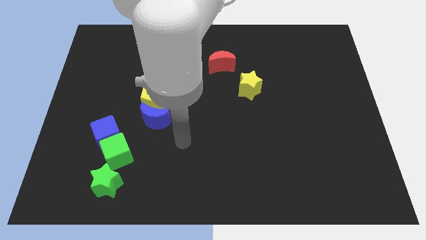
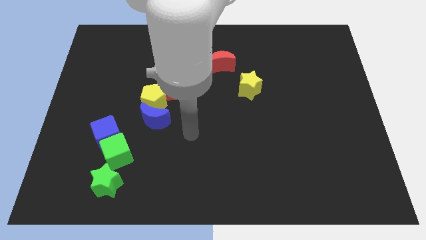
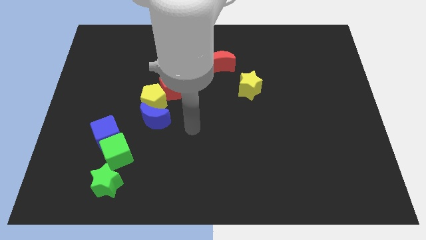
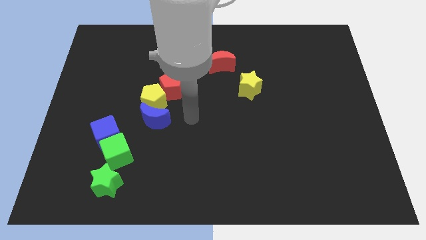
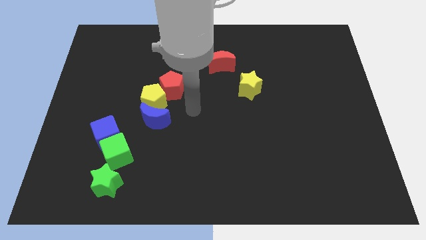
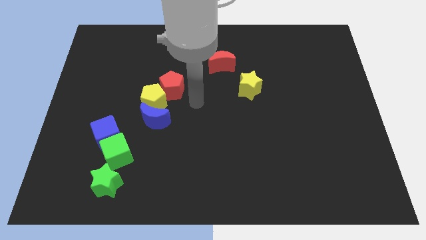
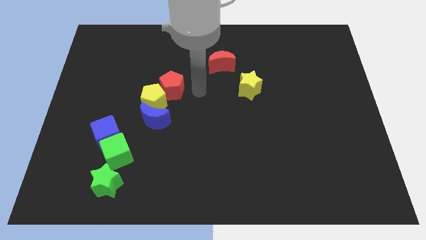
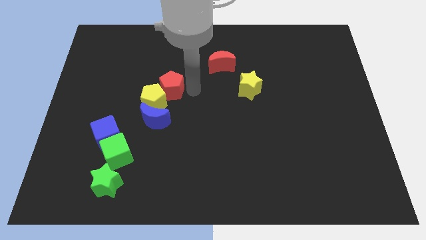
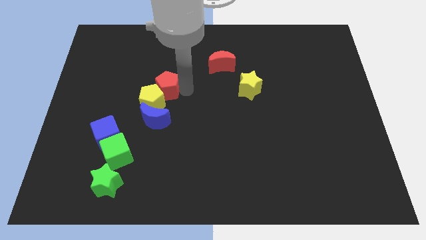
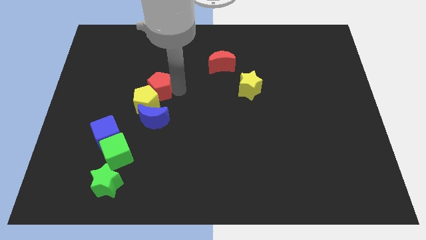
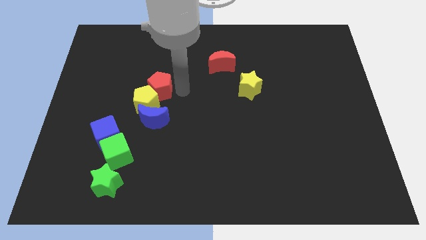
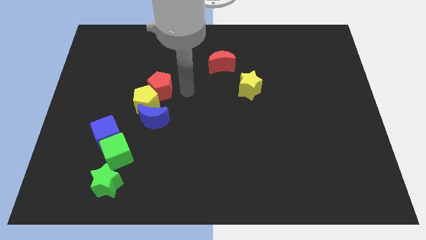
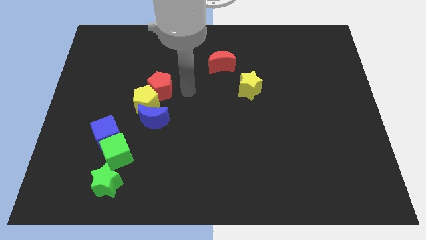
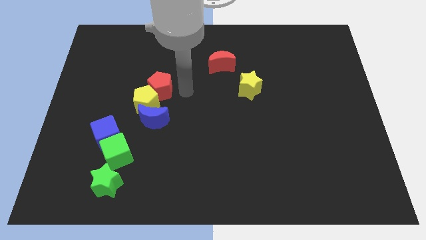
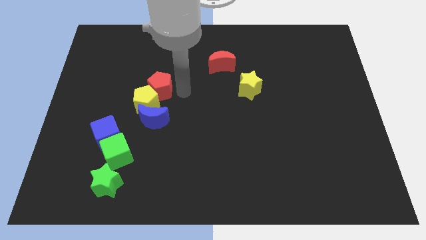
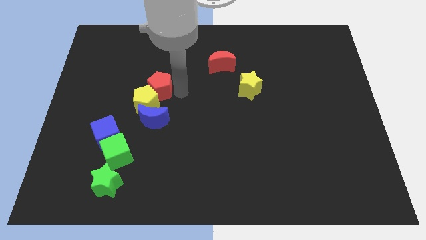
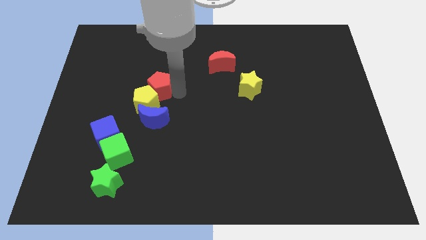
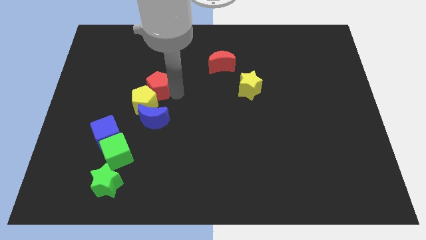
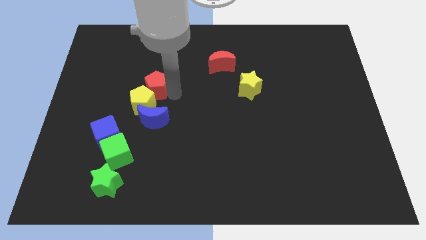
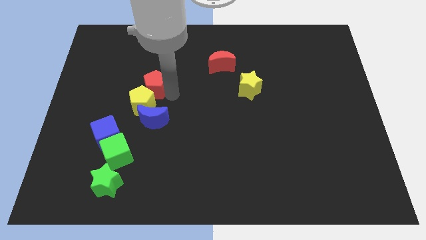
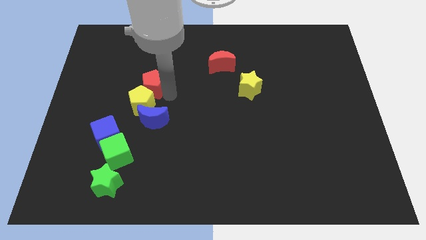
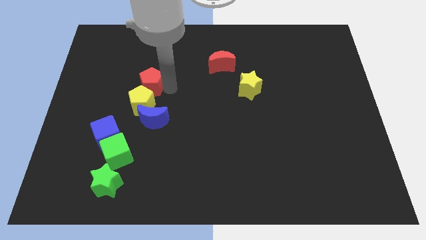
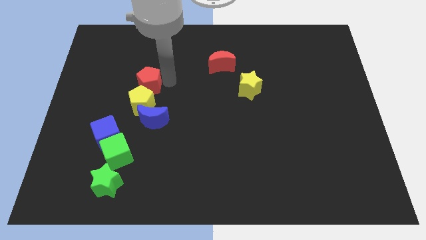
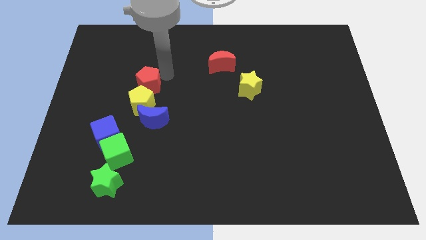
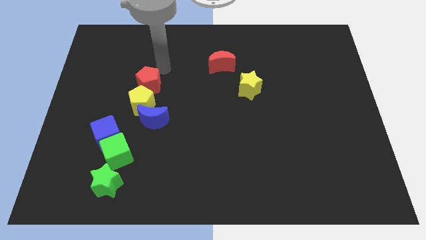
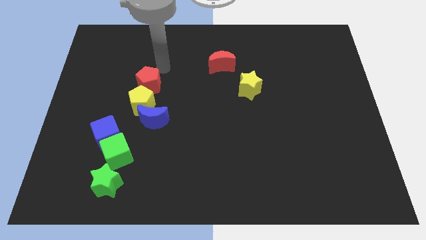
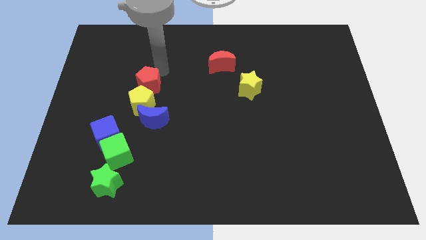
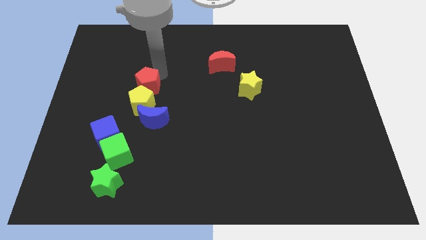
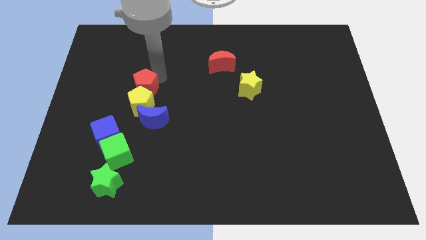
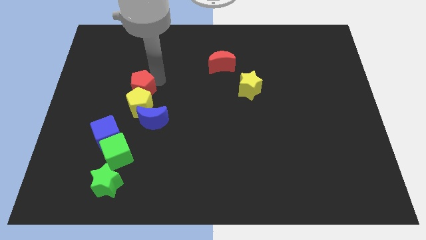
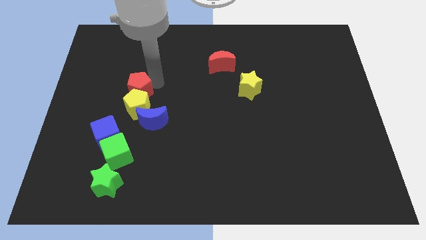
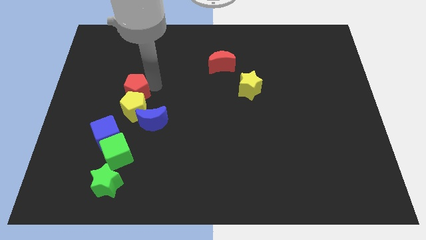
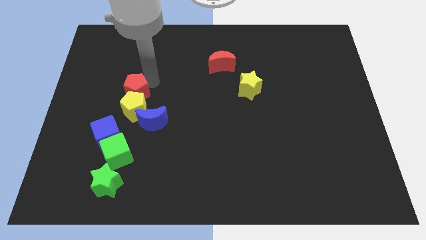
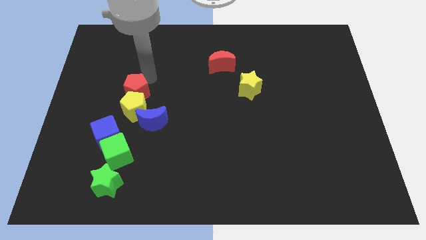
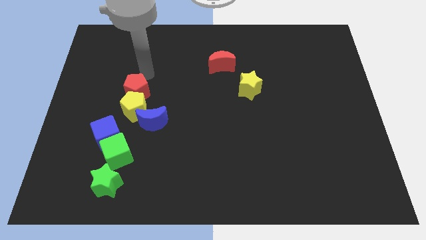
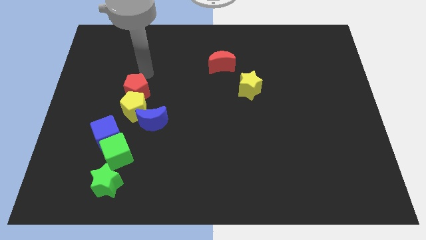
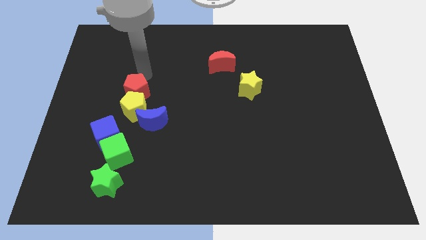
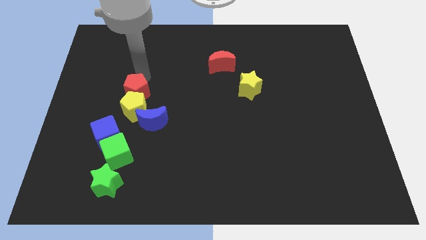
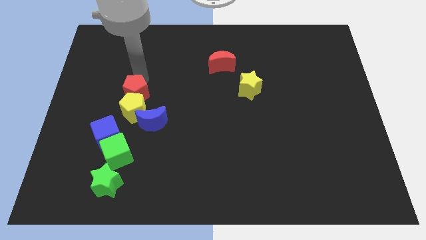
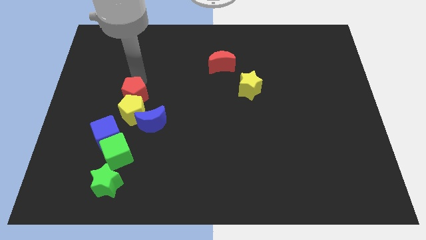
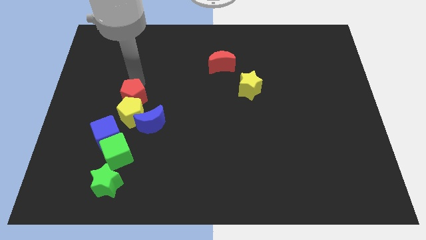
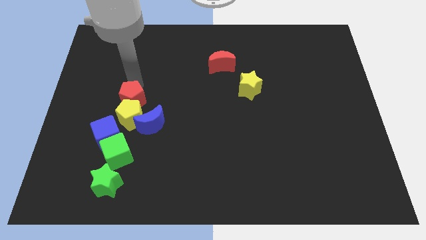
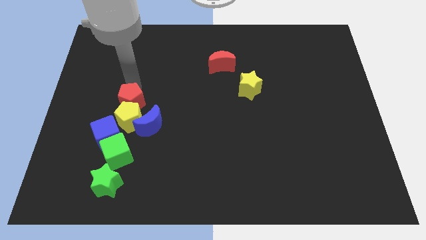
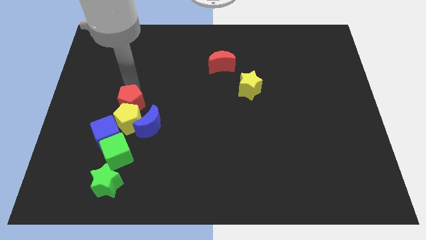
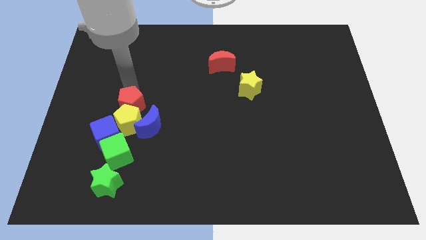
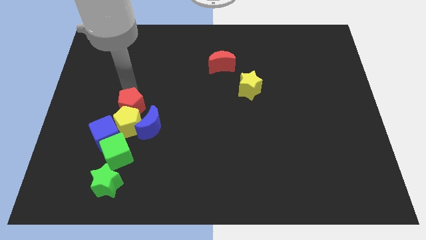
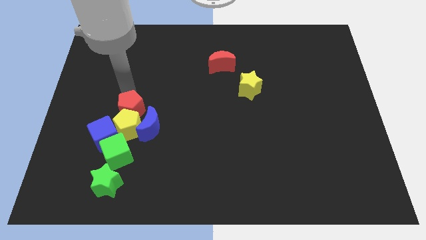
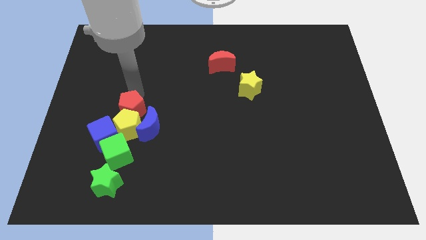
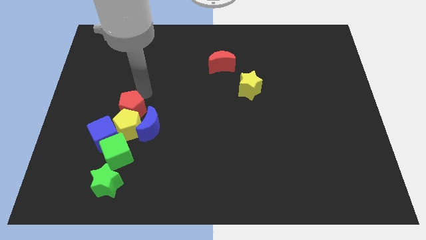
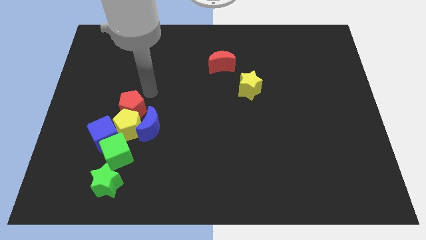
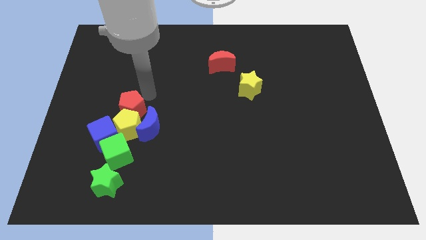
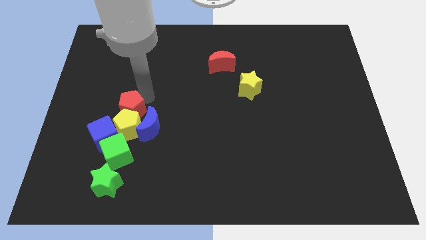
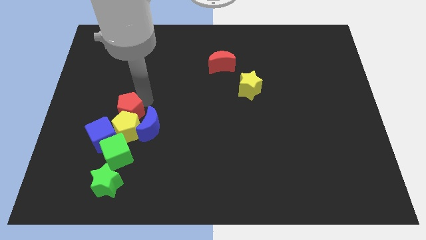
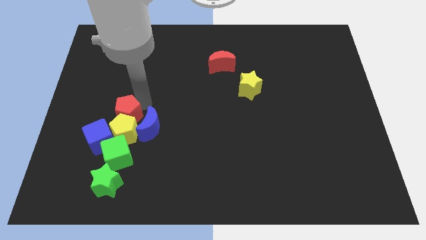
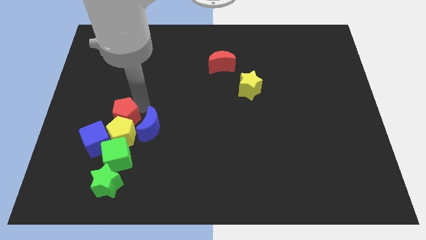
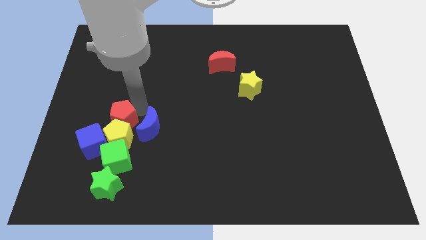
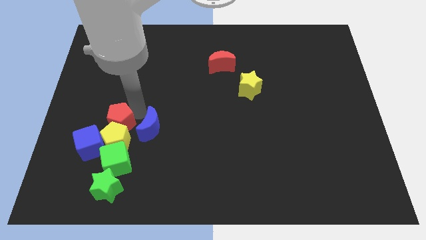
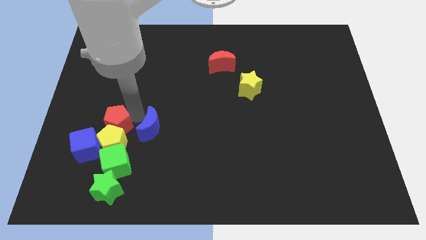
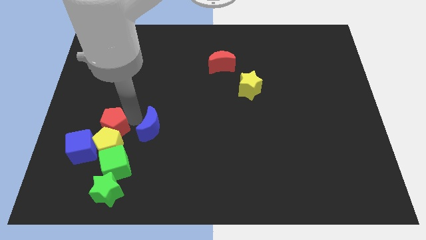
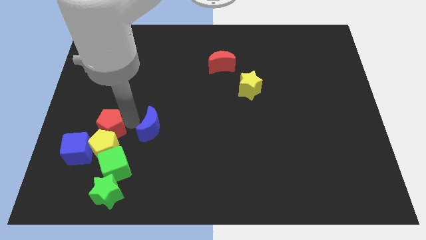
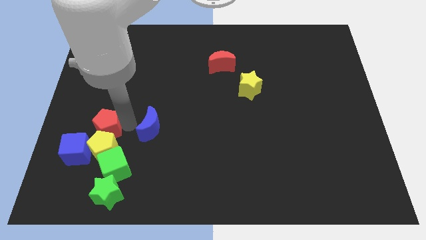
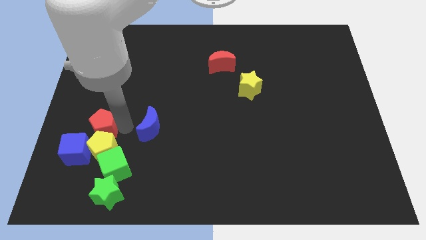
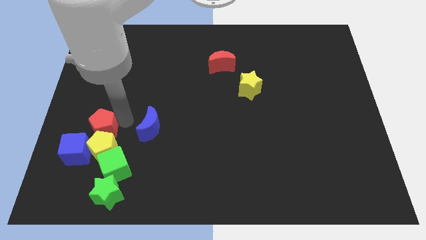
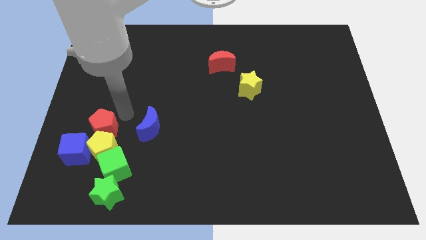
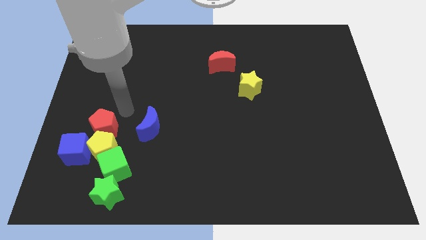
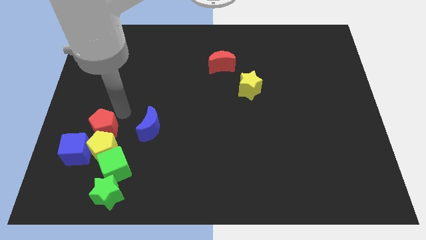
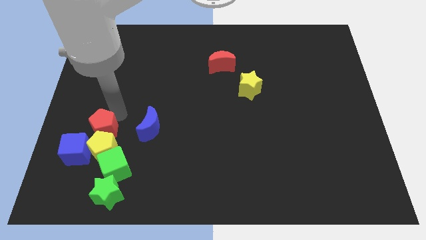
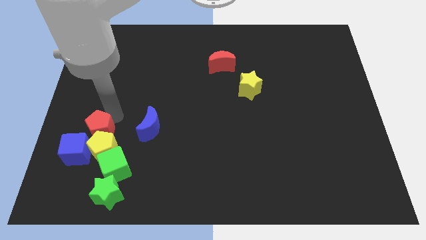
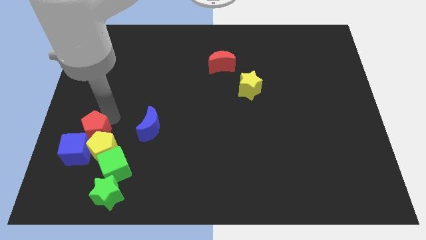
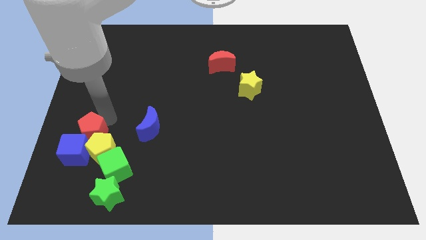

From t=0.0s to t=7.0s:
move the red pentagon close to the blue cube
